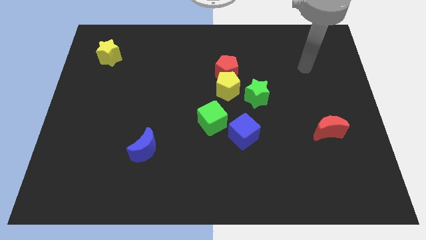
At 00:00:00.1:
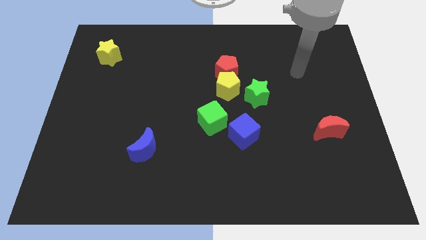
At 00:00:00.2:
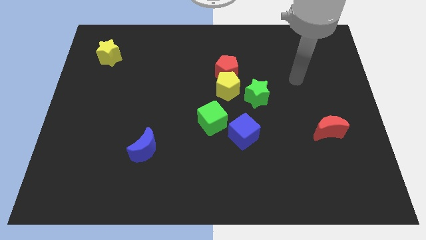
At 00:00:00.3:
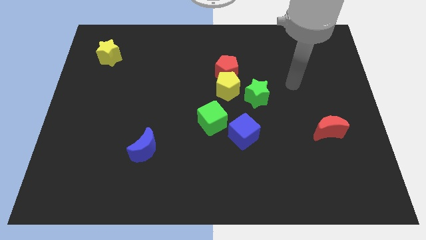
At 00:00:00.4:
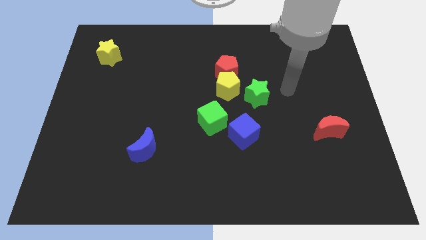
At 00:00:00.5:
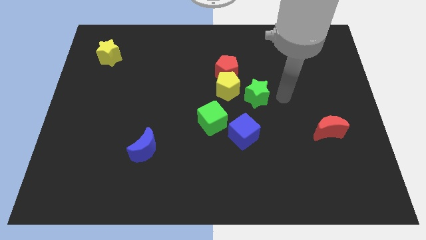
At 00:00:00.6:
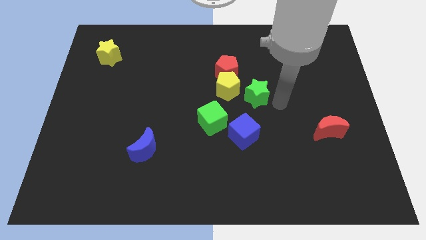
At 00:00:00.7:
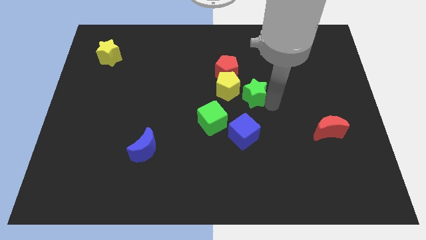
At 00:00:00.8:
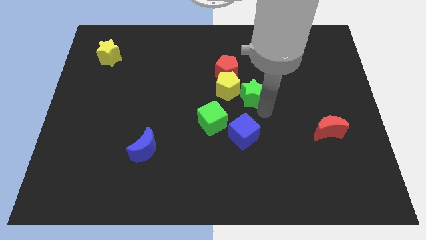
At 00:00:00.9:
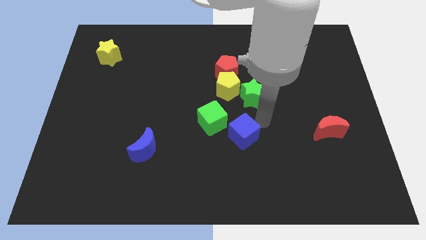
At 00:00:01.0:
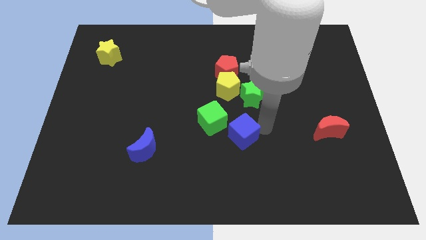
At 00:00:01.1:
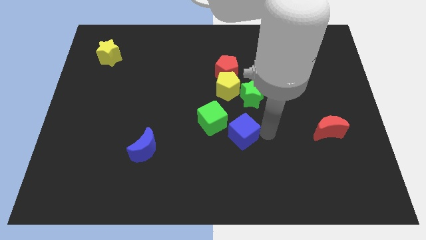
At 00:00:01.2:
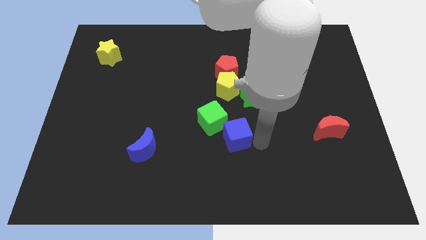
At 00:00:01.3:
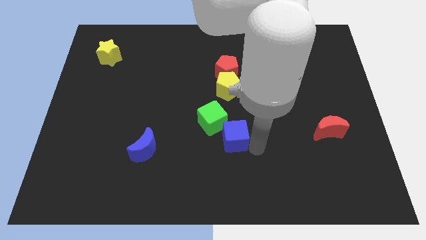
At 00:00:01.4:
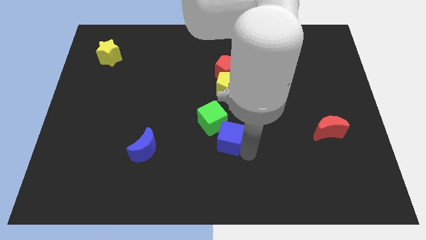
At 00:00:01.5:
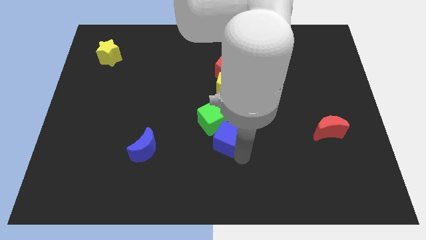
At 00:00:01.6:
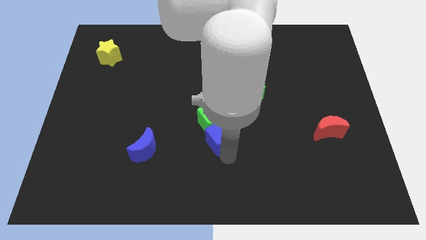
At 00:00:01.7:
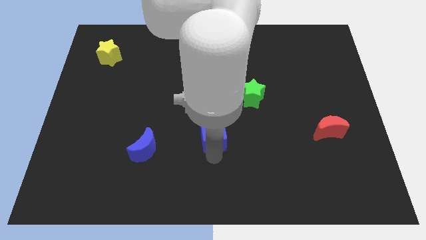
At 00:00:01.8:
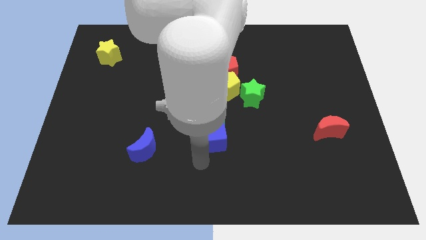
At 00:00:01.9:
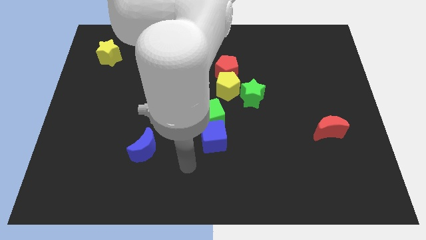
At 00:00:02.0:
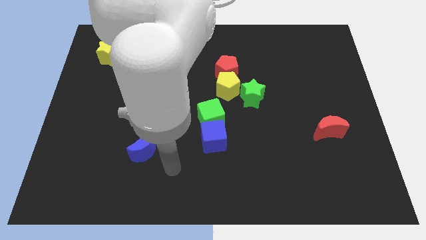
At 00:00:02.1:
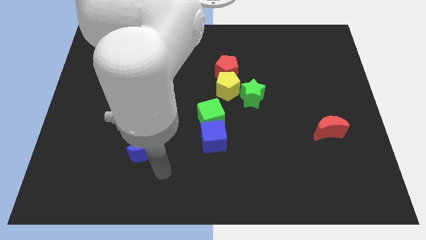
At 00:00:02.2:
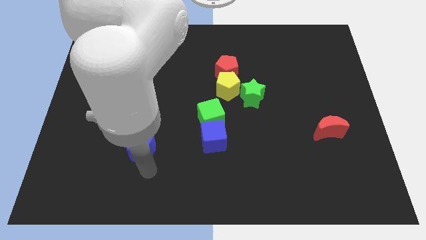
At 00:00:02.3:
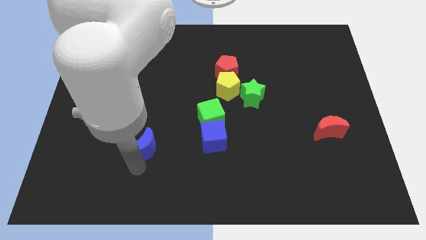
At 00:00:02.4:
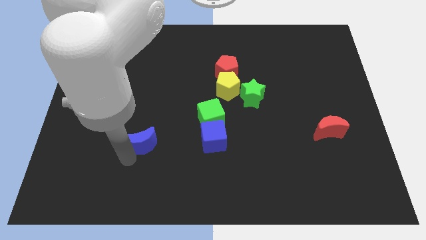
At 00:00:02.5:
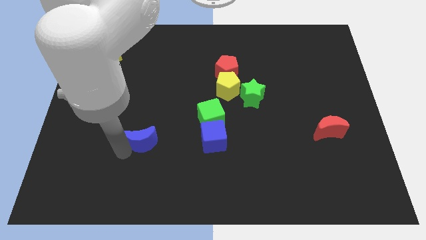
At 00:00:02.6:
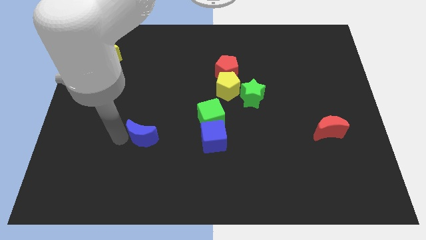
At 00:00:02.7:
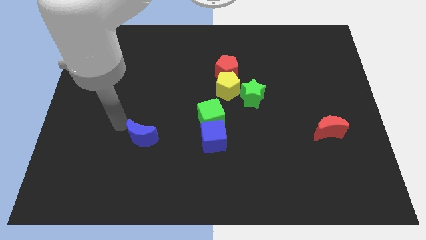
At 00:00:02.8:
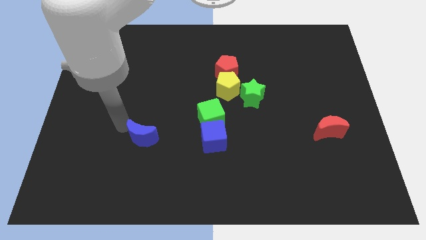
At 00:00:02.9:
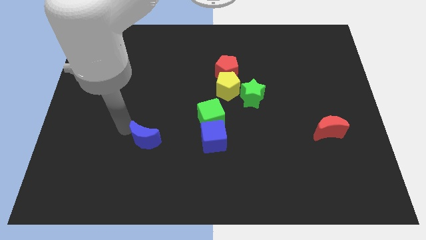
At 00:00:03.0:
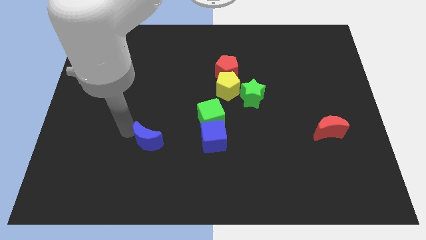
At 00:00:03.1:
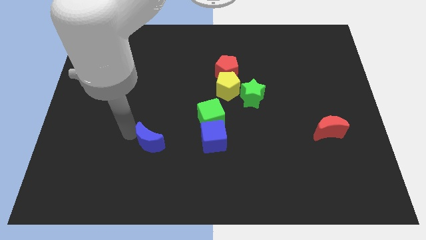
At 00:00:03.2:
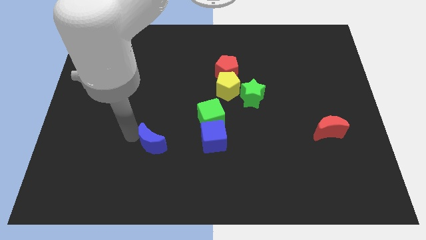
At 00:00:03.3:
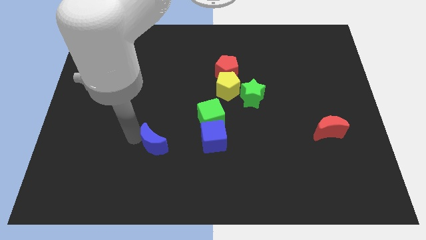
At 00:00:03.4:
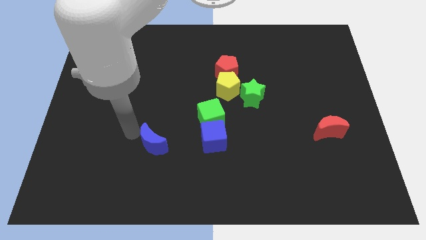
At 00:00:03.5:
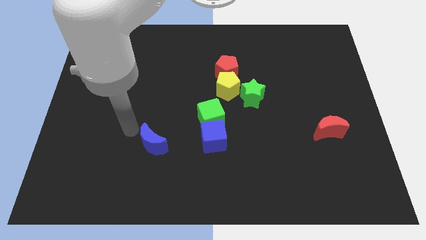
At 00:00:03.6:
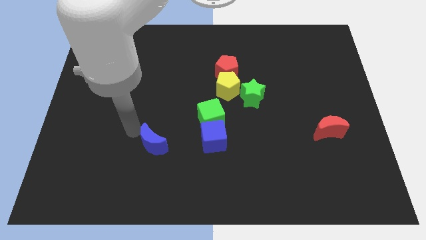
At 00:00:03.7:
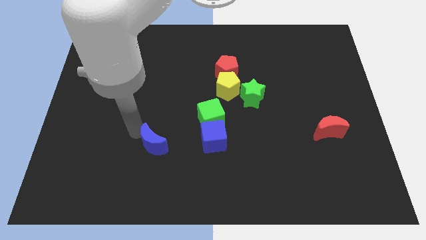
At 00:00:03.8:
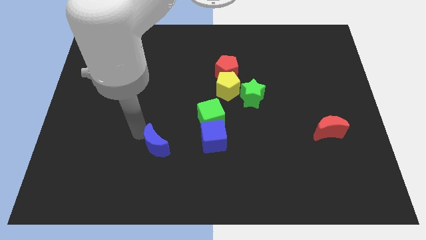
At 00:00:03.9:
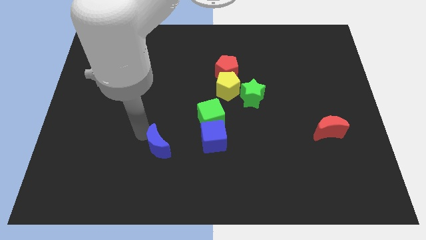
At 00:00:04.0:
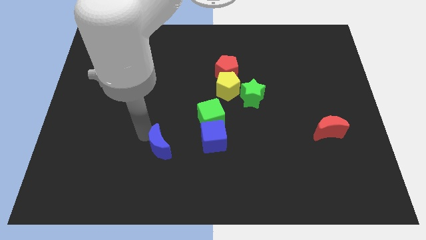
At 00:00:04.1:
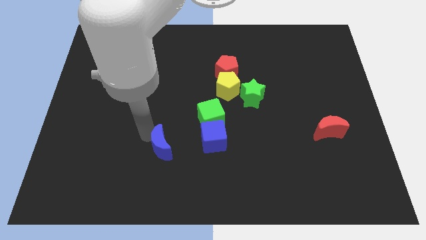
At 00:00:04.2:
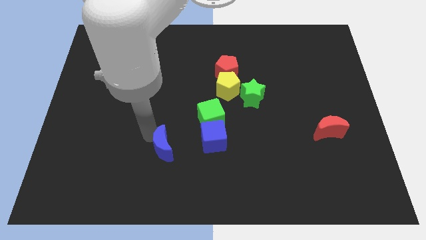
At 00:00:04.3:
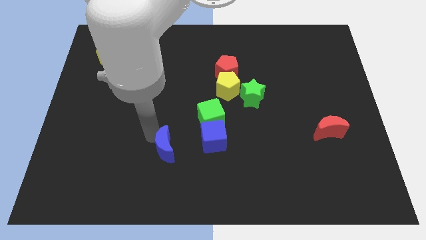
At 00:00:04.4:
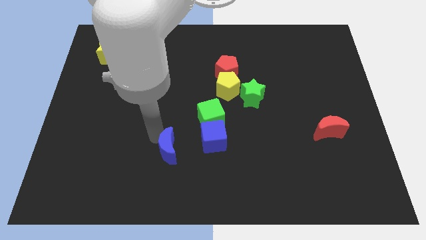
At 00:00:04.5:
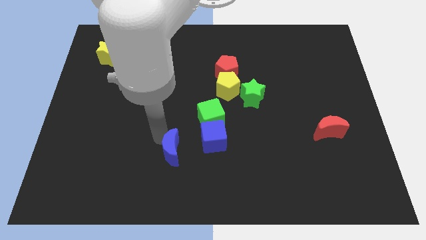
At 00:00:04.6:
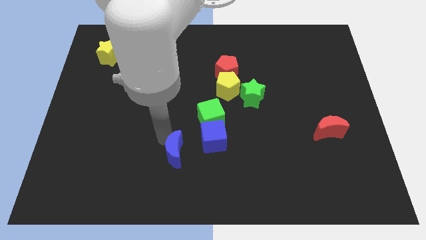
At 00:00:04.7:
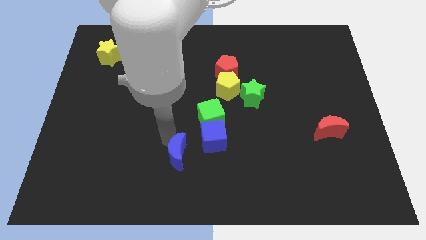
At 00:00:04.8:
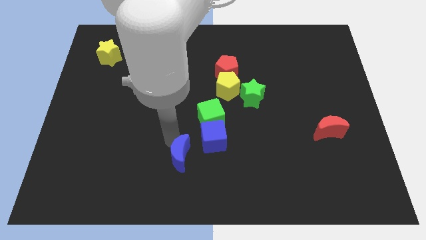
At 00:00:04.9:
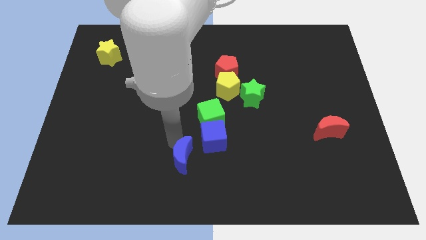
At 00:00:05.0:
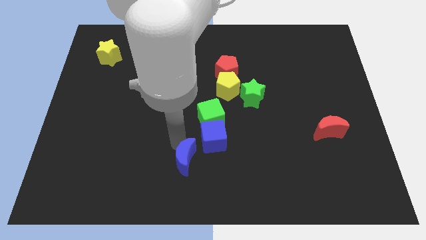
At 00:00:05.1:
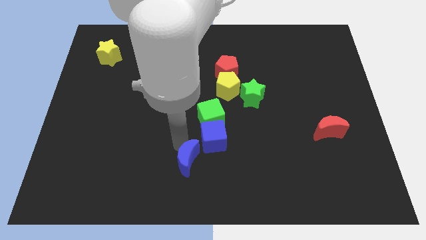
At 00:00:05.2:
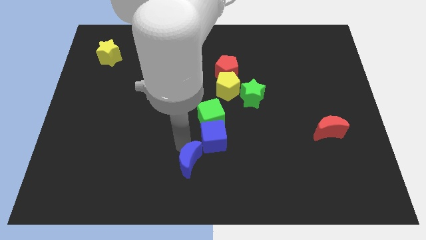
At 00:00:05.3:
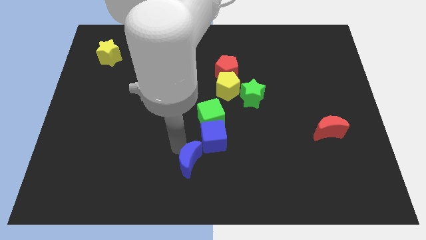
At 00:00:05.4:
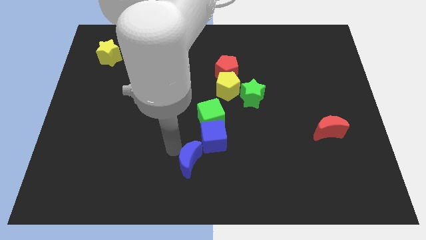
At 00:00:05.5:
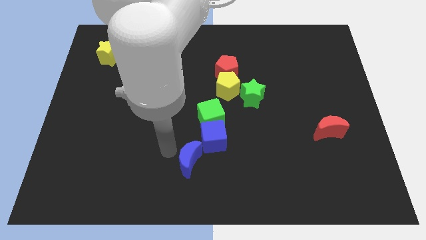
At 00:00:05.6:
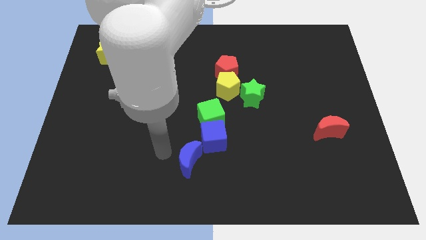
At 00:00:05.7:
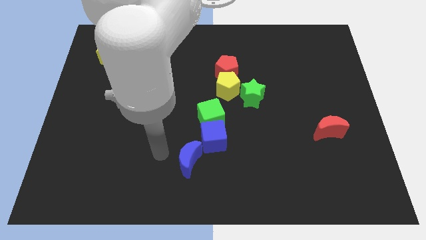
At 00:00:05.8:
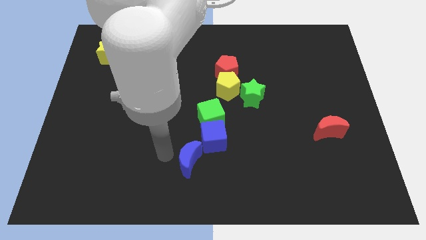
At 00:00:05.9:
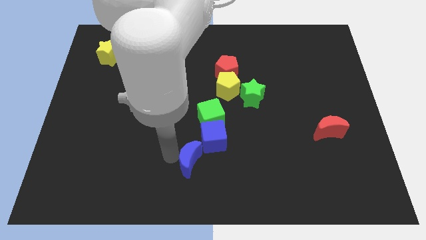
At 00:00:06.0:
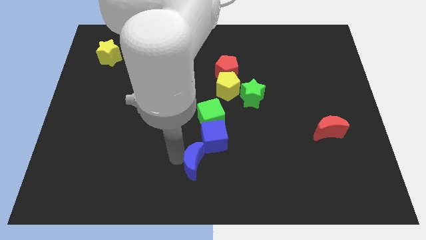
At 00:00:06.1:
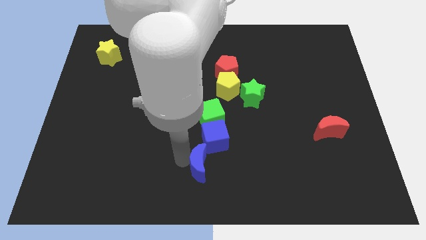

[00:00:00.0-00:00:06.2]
slide the blue moon below the blue cube

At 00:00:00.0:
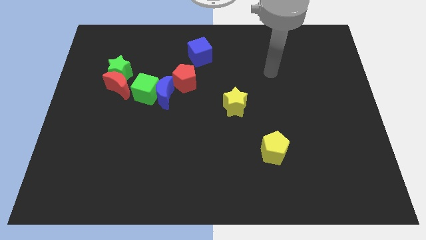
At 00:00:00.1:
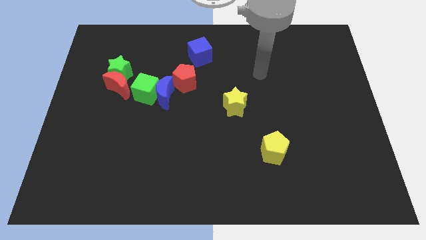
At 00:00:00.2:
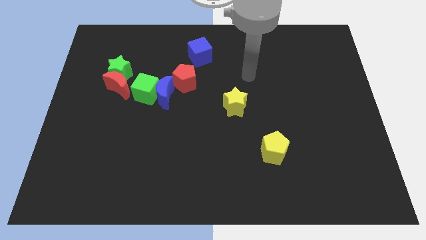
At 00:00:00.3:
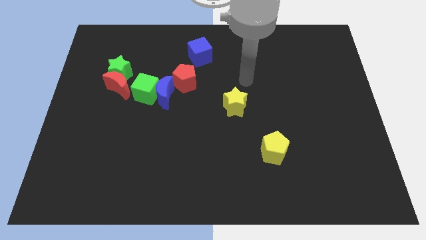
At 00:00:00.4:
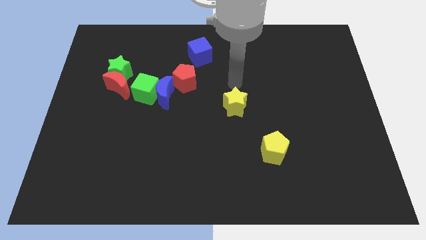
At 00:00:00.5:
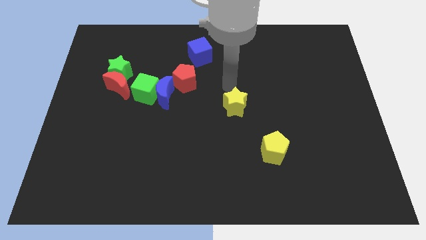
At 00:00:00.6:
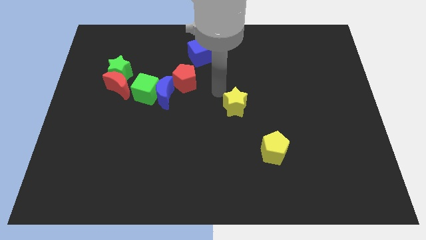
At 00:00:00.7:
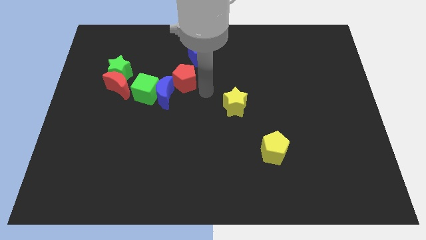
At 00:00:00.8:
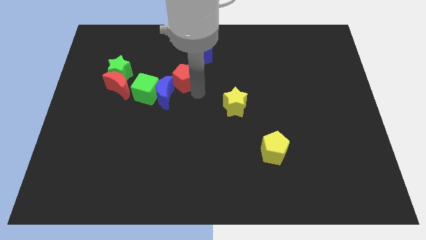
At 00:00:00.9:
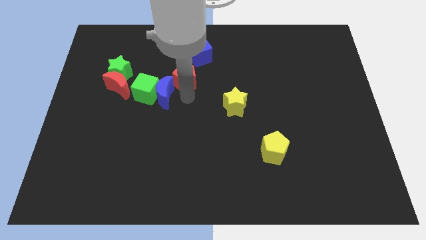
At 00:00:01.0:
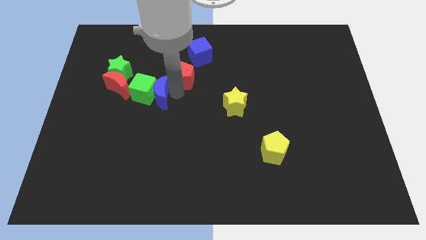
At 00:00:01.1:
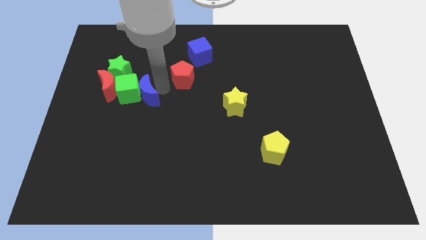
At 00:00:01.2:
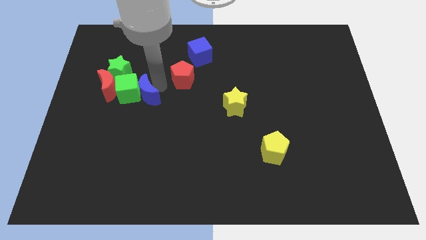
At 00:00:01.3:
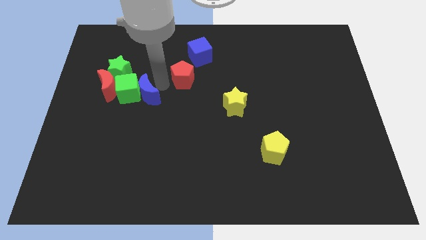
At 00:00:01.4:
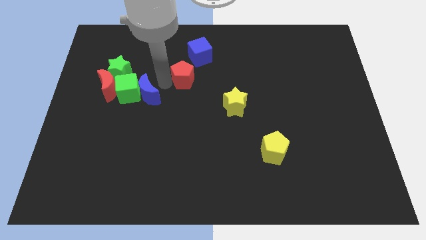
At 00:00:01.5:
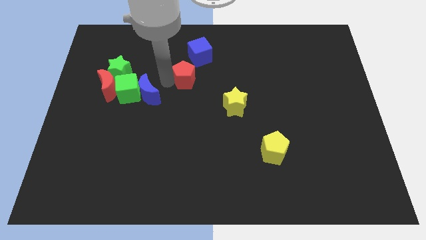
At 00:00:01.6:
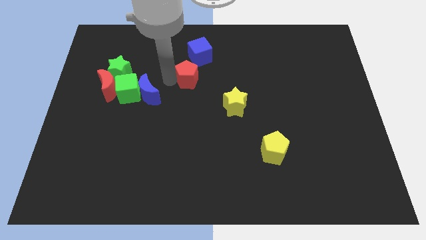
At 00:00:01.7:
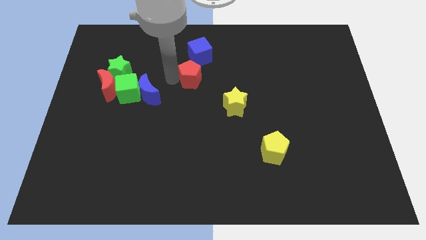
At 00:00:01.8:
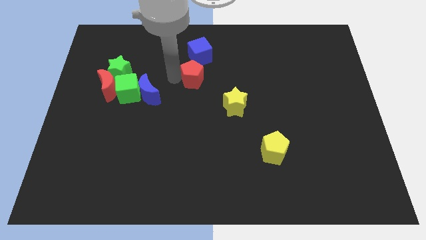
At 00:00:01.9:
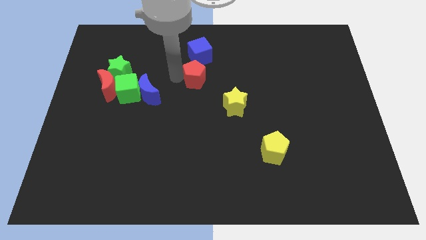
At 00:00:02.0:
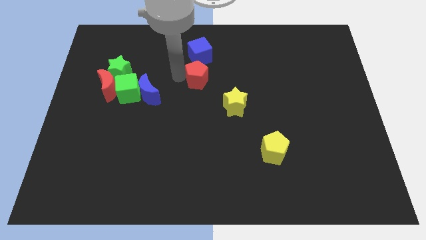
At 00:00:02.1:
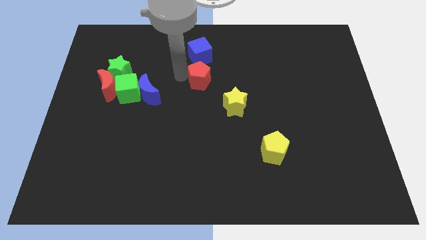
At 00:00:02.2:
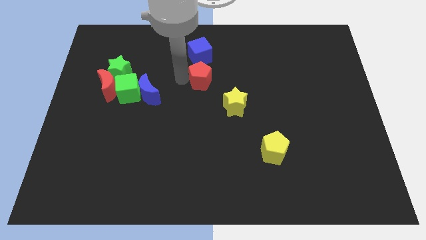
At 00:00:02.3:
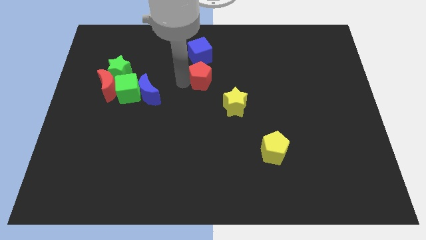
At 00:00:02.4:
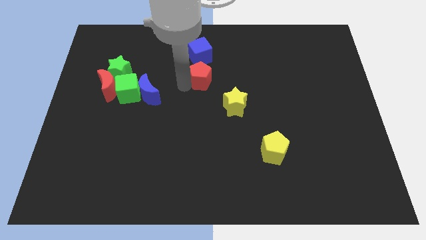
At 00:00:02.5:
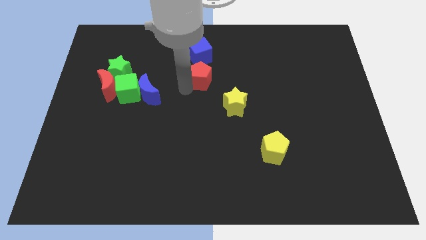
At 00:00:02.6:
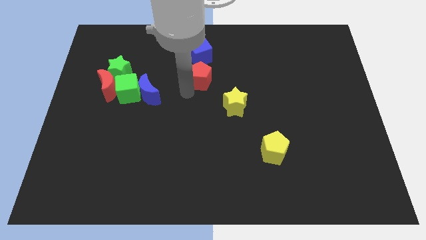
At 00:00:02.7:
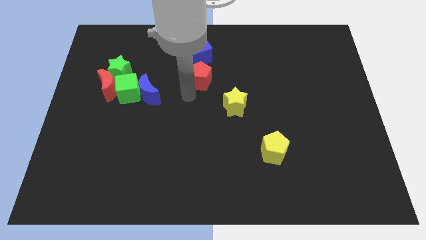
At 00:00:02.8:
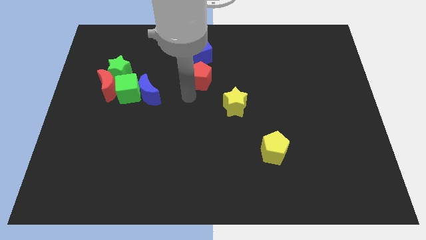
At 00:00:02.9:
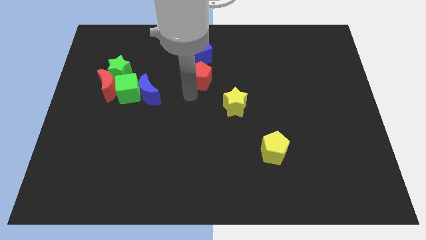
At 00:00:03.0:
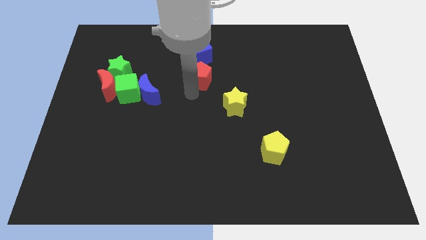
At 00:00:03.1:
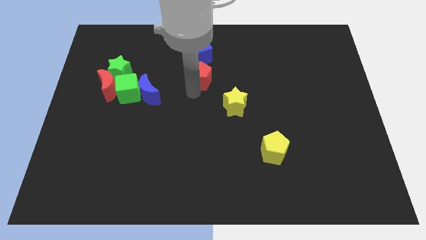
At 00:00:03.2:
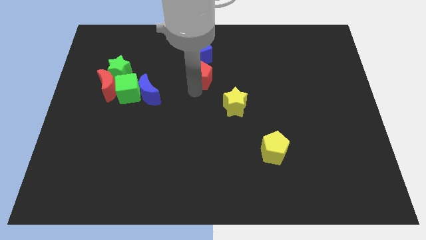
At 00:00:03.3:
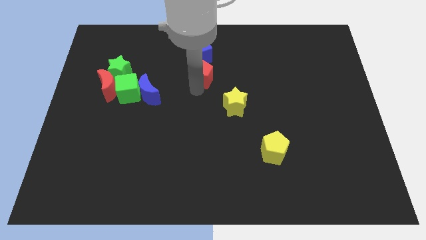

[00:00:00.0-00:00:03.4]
push the red pentagon diagonally down and to the right of the blue cube
